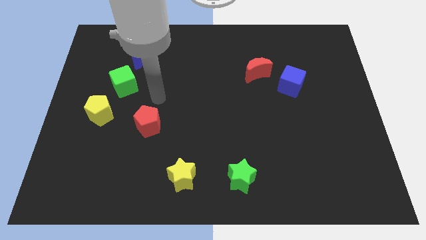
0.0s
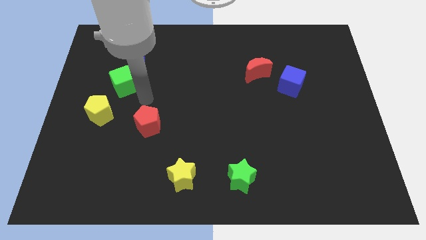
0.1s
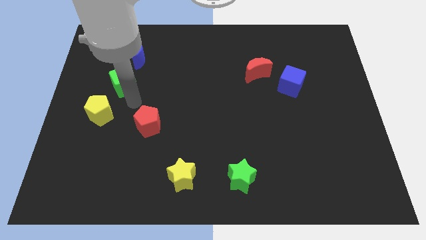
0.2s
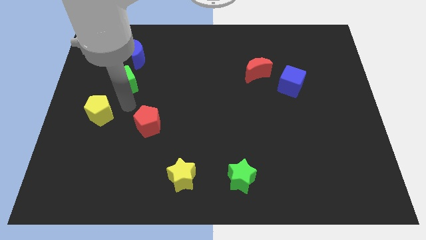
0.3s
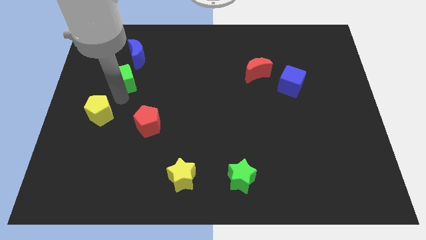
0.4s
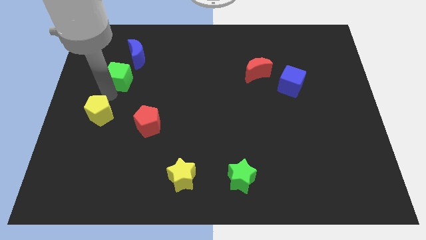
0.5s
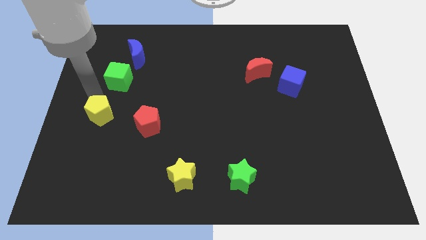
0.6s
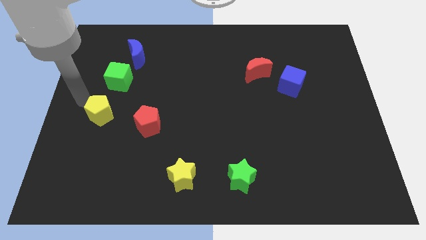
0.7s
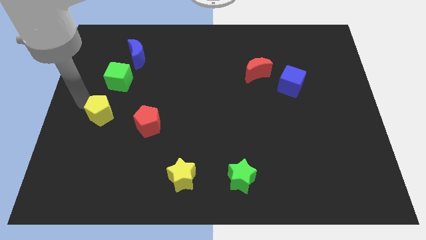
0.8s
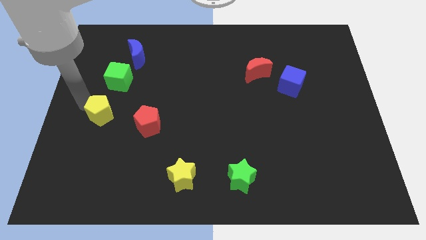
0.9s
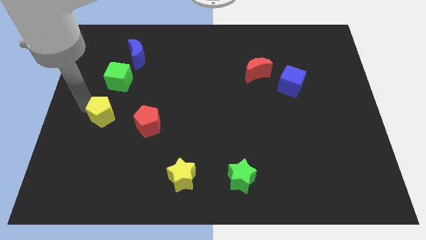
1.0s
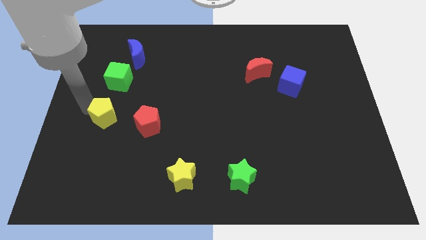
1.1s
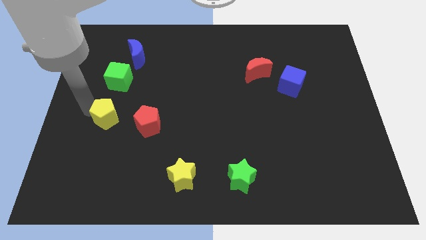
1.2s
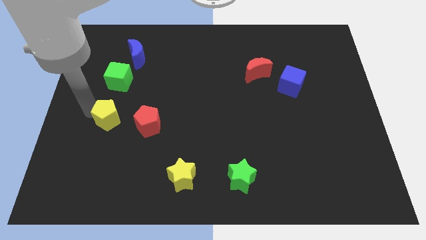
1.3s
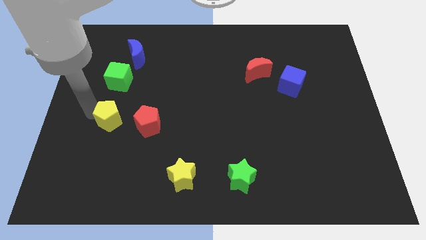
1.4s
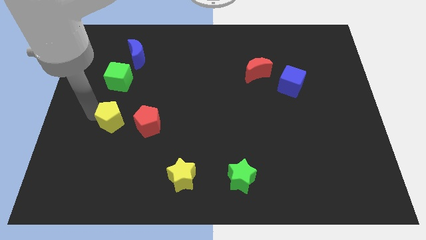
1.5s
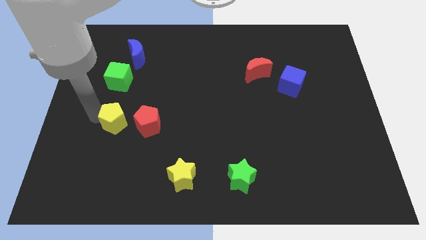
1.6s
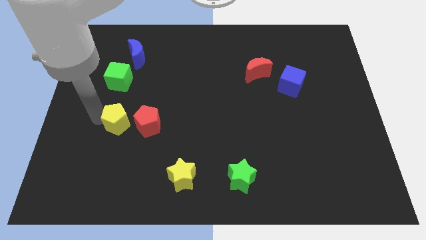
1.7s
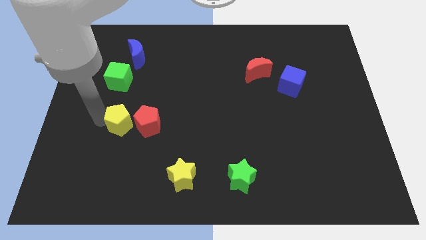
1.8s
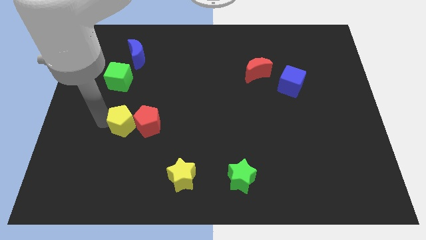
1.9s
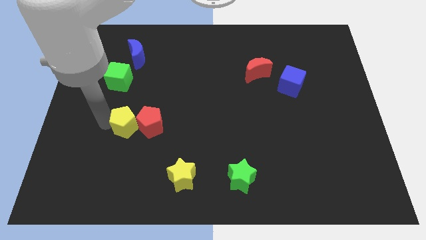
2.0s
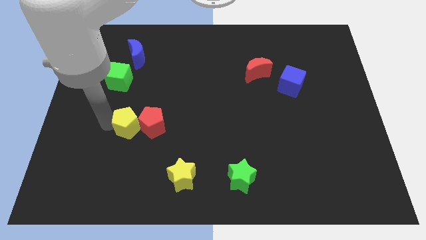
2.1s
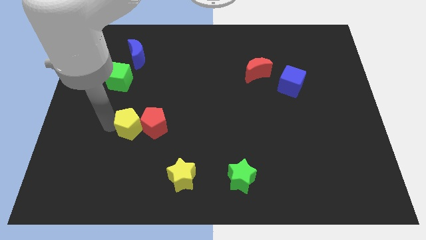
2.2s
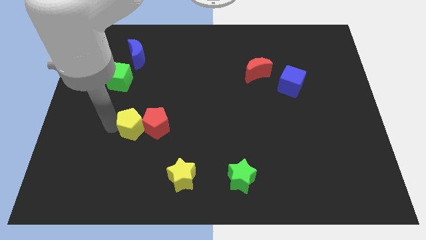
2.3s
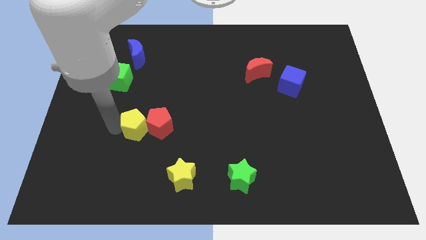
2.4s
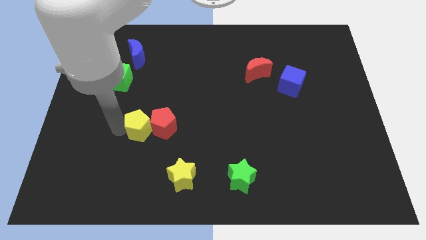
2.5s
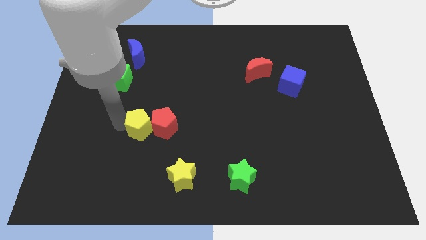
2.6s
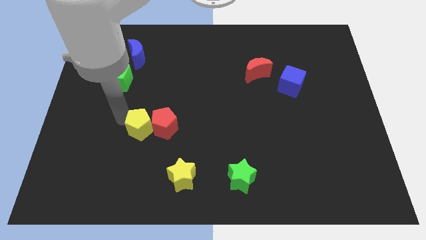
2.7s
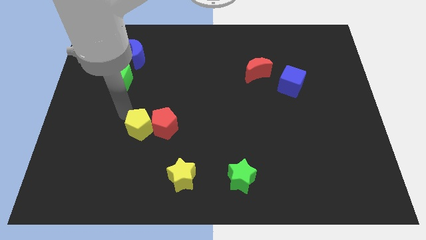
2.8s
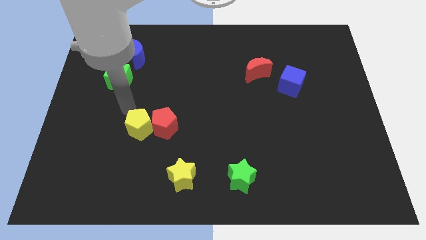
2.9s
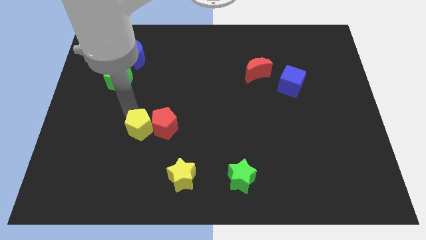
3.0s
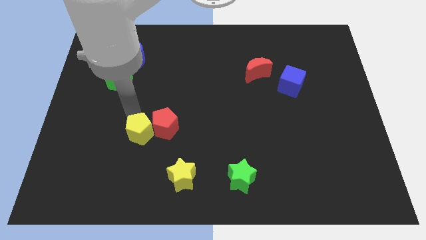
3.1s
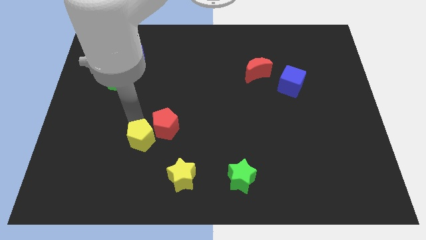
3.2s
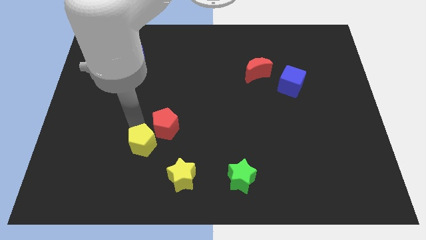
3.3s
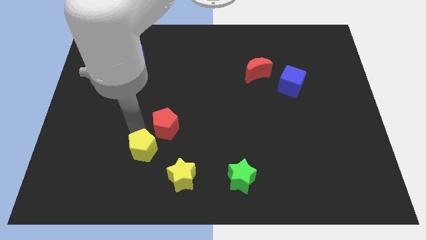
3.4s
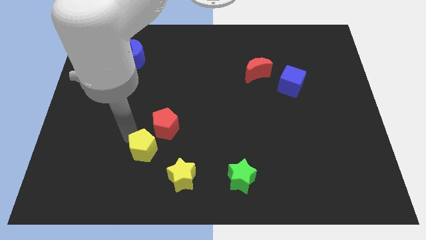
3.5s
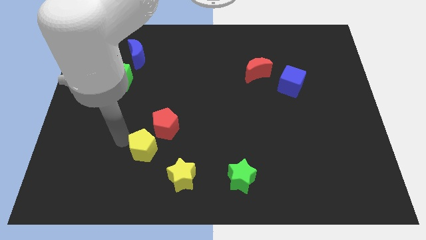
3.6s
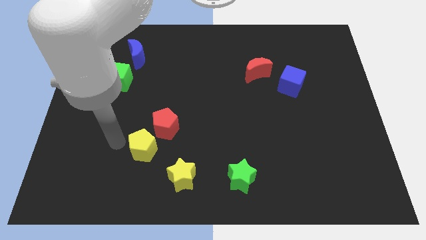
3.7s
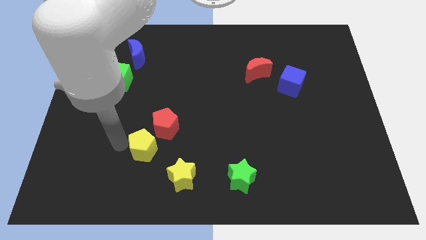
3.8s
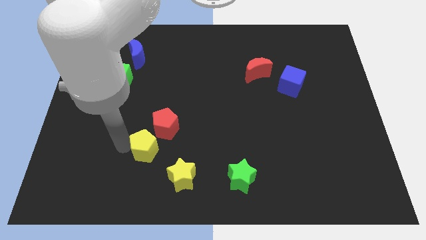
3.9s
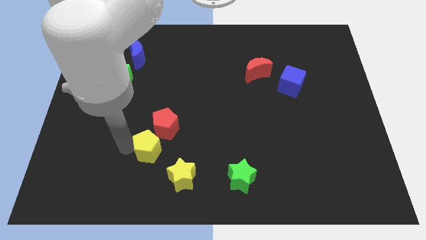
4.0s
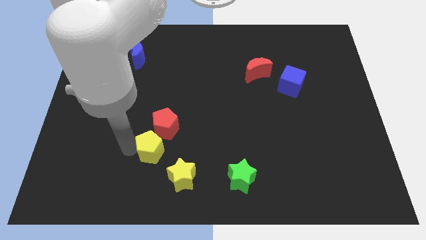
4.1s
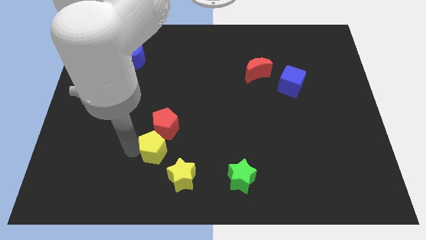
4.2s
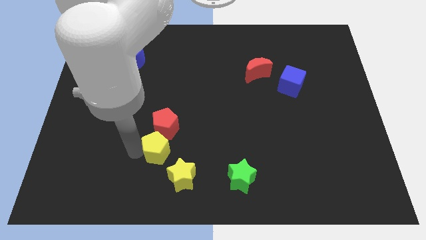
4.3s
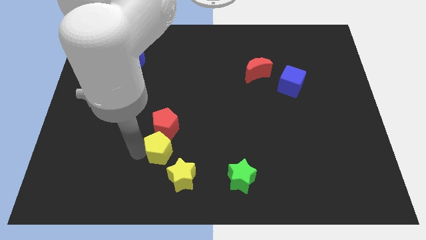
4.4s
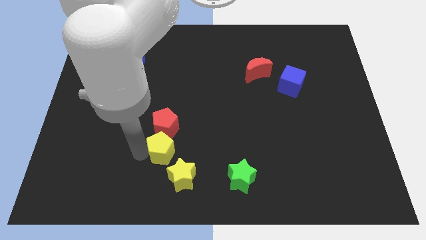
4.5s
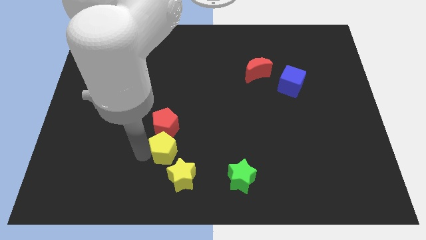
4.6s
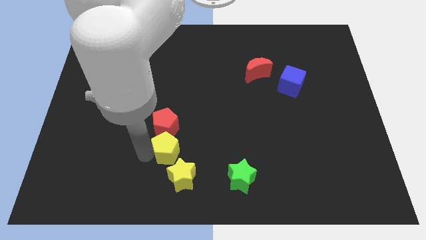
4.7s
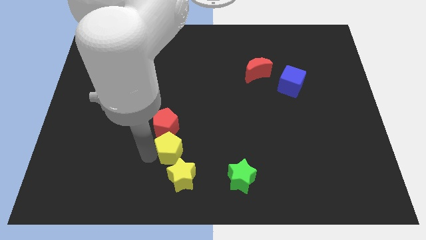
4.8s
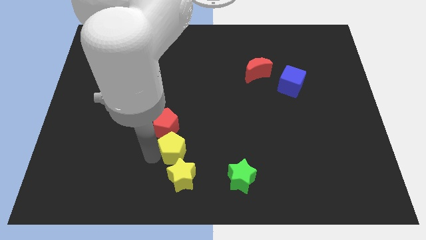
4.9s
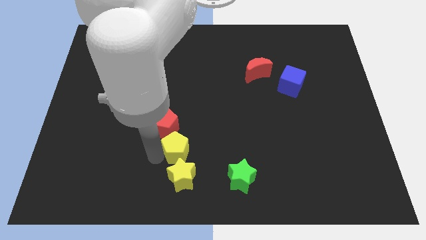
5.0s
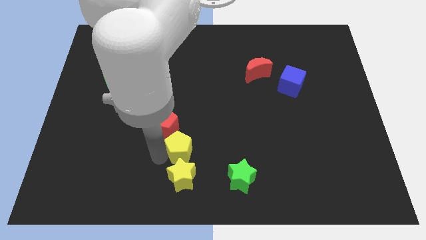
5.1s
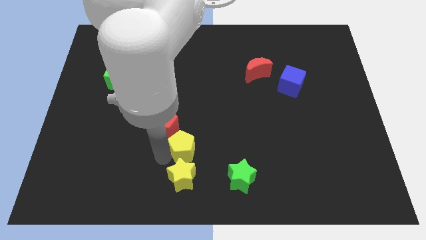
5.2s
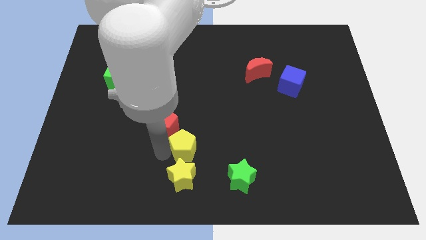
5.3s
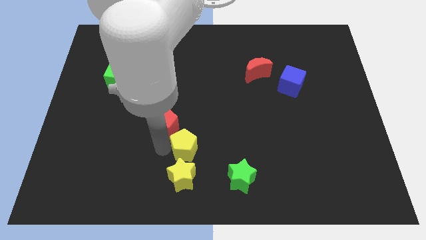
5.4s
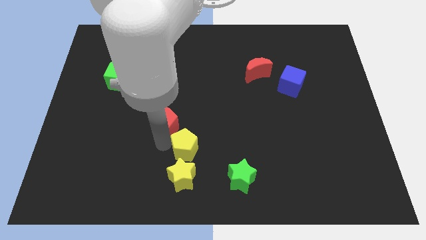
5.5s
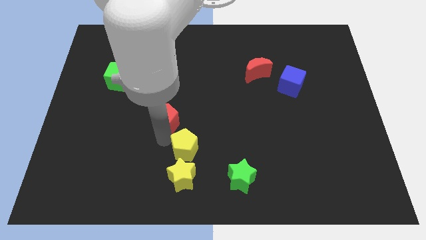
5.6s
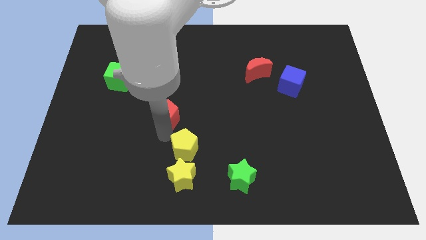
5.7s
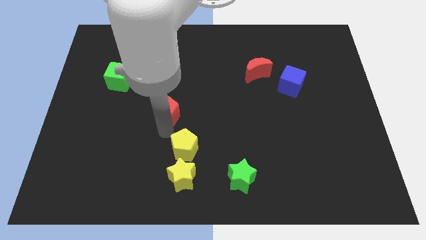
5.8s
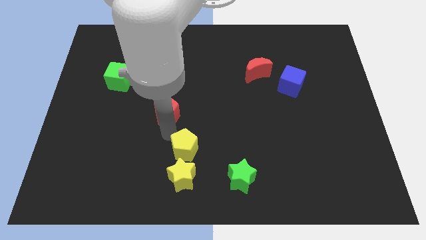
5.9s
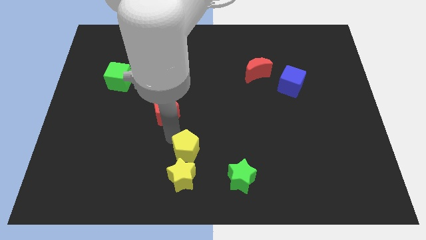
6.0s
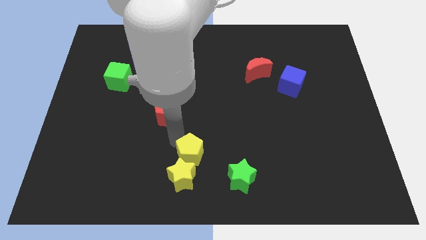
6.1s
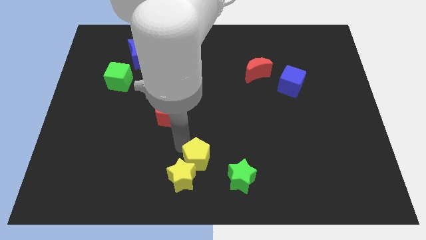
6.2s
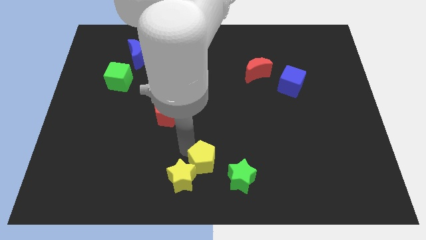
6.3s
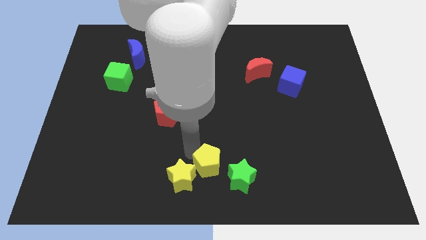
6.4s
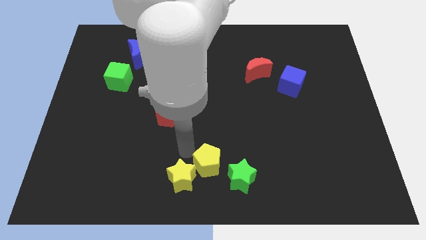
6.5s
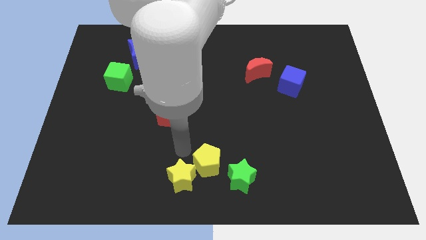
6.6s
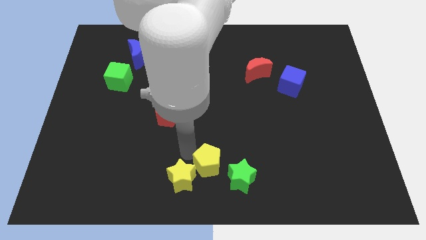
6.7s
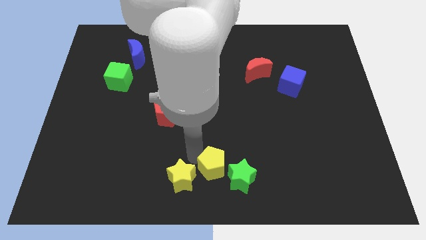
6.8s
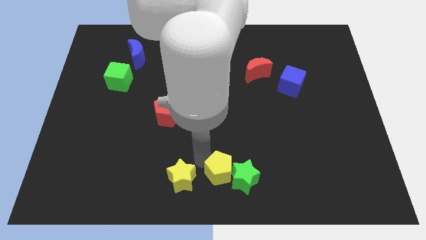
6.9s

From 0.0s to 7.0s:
push the yellow pentagon next to the green star
